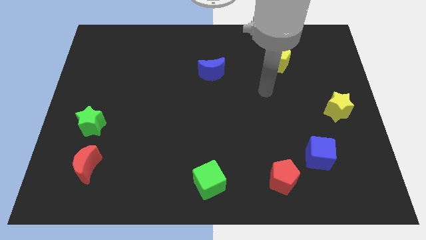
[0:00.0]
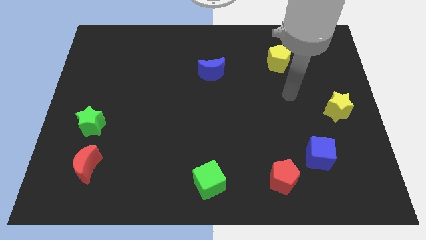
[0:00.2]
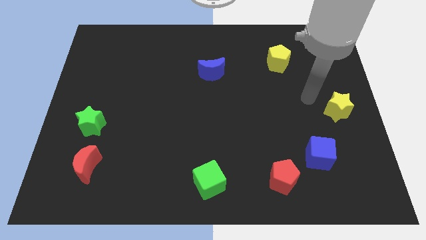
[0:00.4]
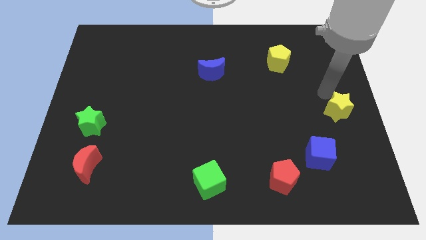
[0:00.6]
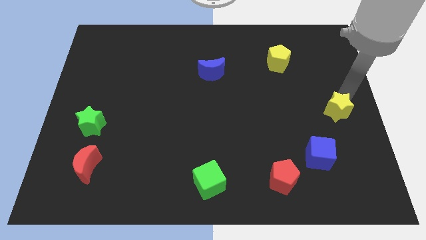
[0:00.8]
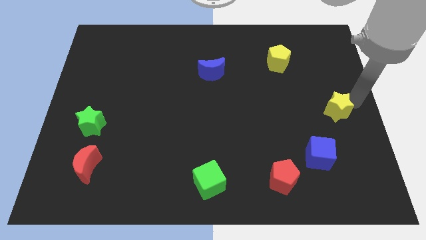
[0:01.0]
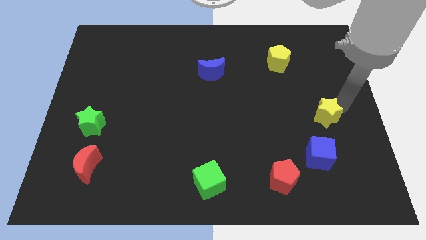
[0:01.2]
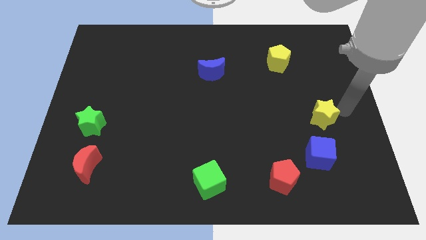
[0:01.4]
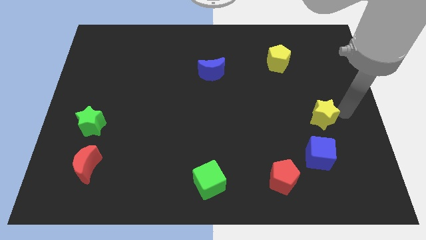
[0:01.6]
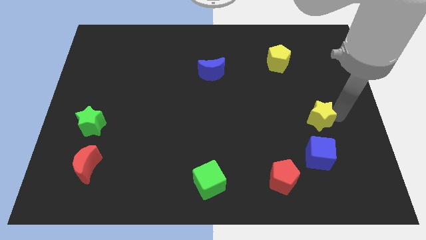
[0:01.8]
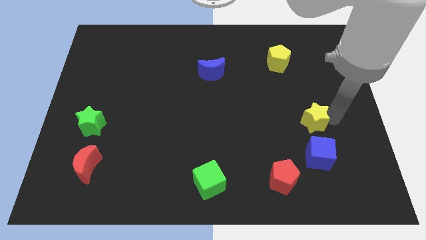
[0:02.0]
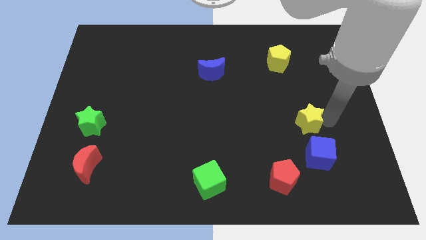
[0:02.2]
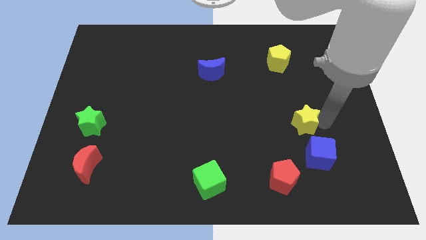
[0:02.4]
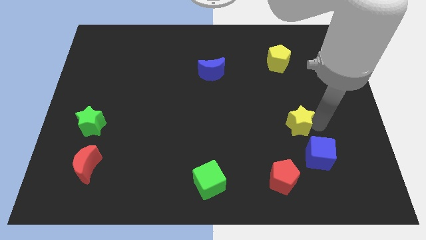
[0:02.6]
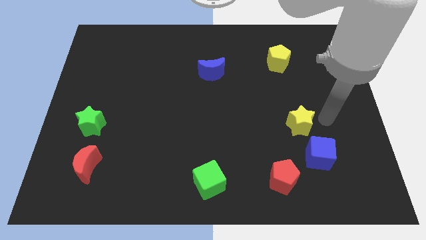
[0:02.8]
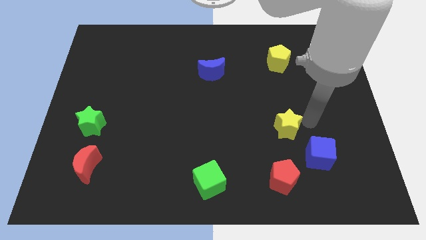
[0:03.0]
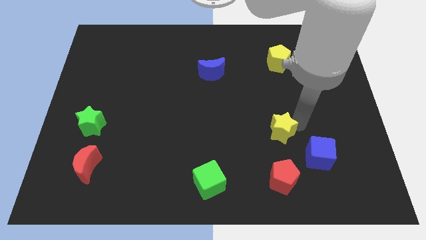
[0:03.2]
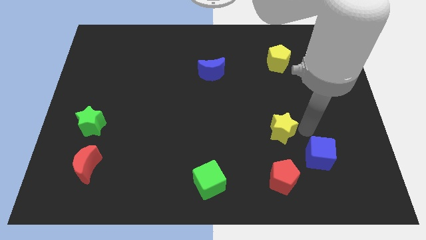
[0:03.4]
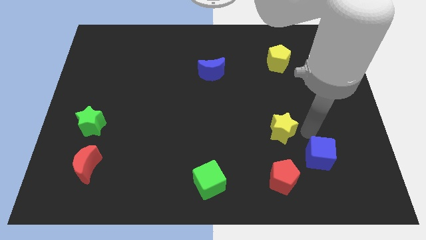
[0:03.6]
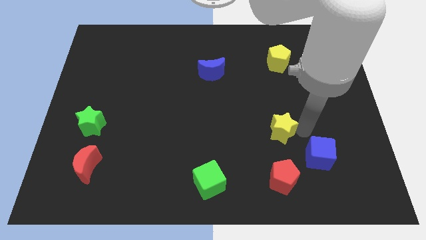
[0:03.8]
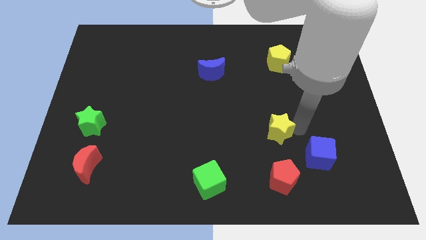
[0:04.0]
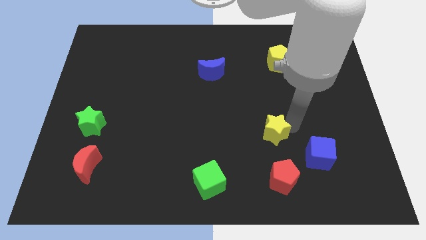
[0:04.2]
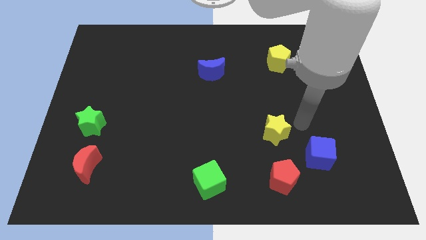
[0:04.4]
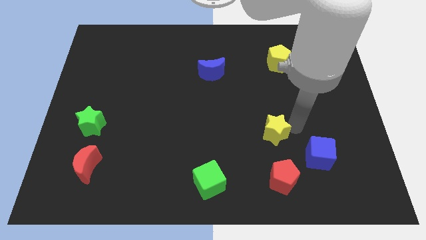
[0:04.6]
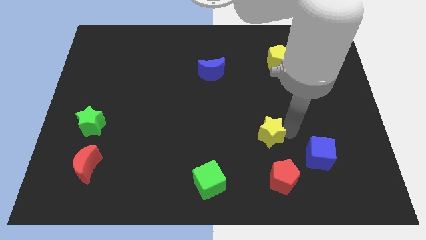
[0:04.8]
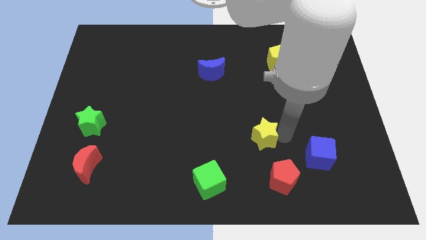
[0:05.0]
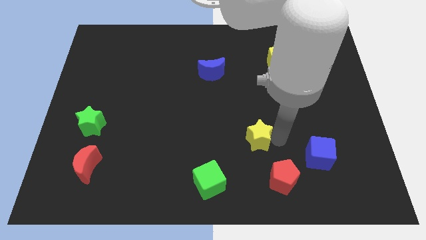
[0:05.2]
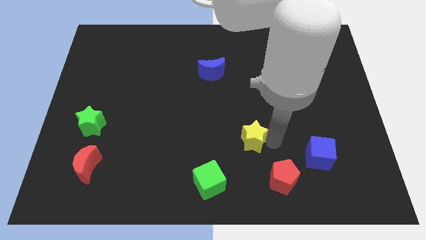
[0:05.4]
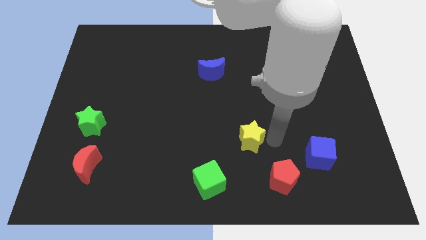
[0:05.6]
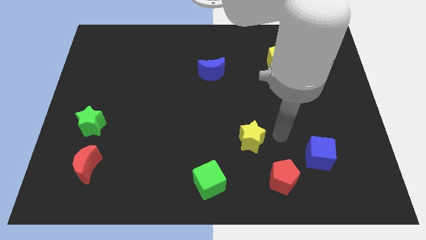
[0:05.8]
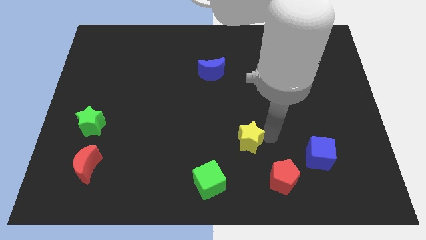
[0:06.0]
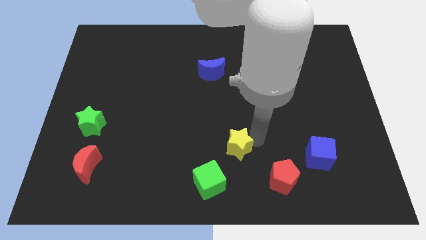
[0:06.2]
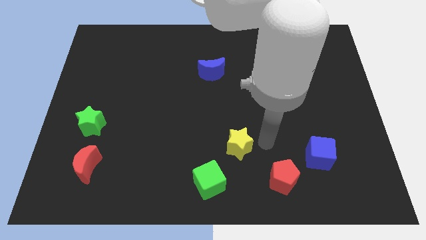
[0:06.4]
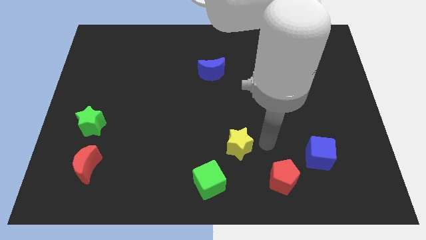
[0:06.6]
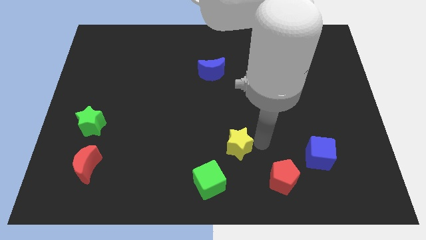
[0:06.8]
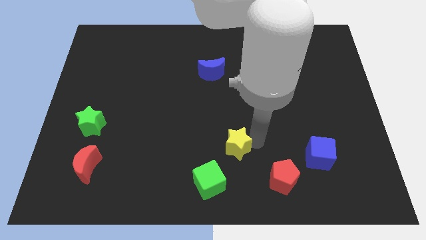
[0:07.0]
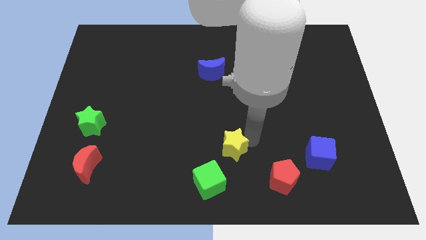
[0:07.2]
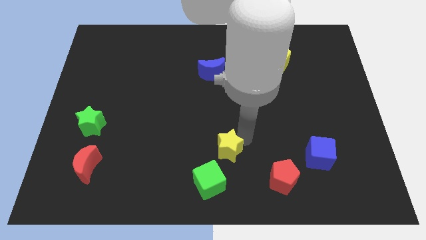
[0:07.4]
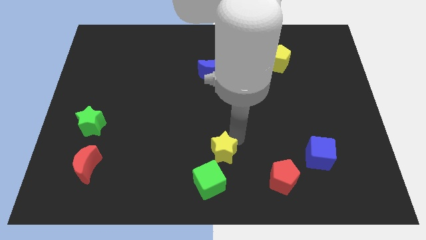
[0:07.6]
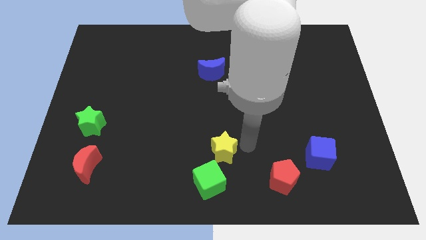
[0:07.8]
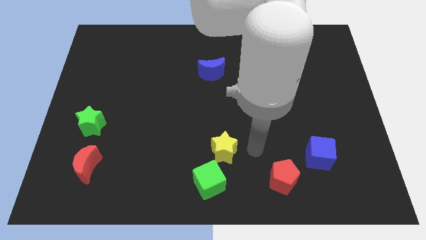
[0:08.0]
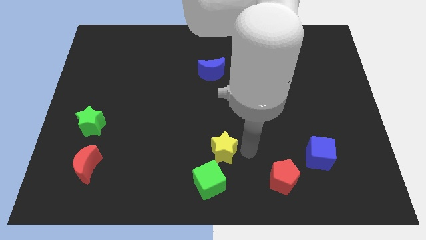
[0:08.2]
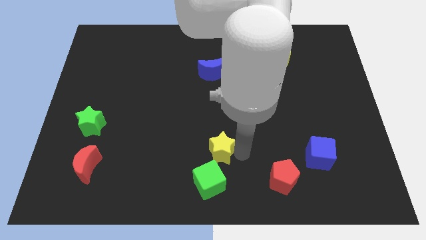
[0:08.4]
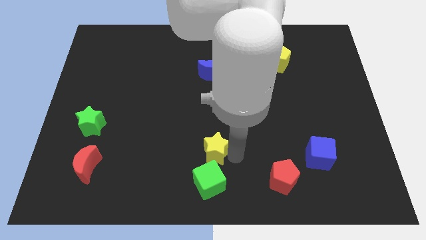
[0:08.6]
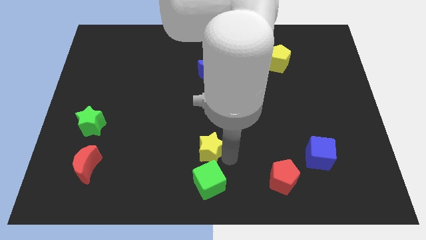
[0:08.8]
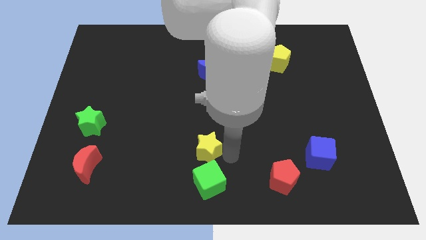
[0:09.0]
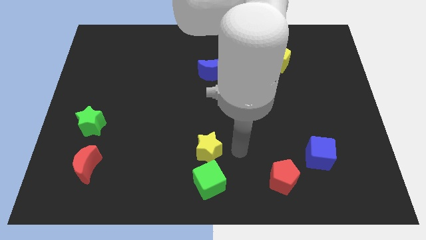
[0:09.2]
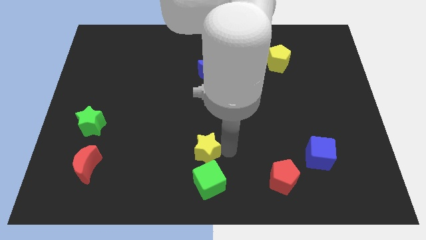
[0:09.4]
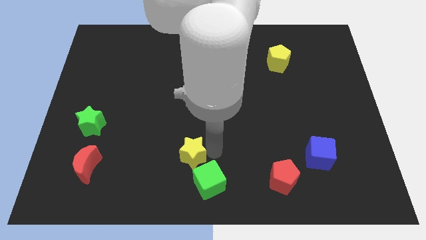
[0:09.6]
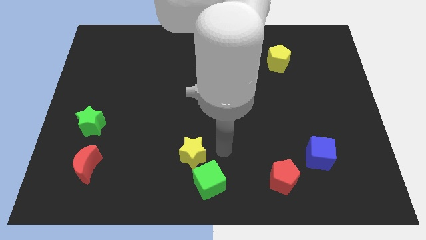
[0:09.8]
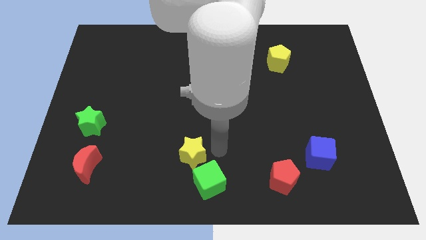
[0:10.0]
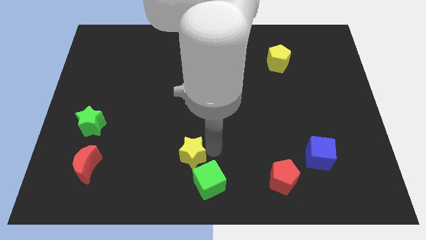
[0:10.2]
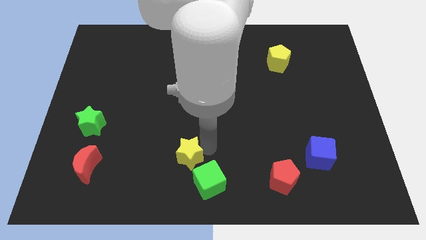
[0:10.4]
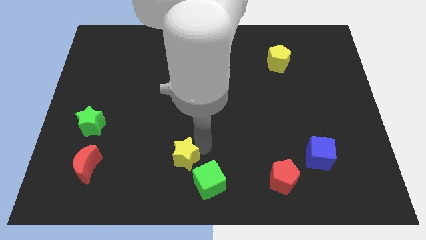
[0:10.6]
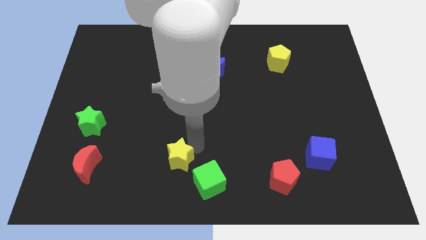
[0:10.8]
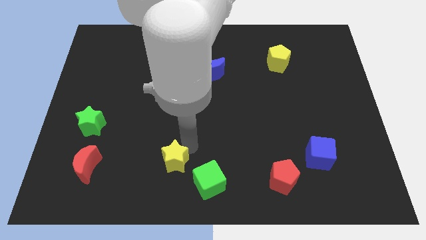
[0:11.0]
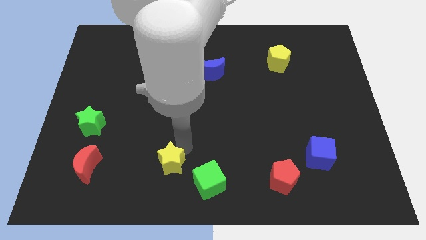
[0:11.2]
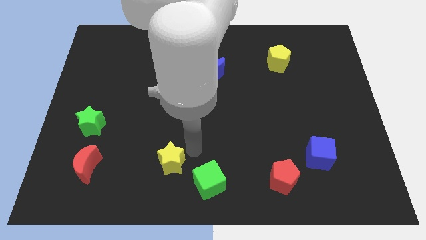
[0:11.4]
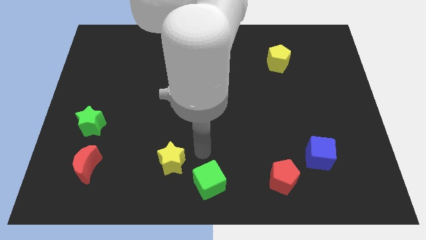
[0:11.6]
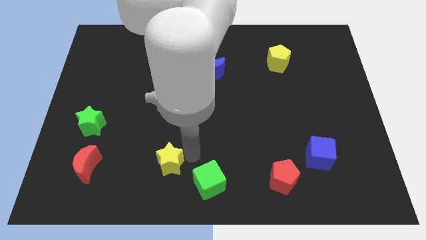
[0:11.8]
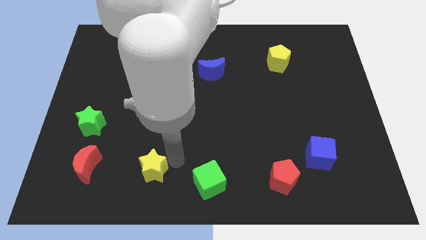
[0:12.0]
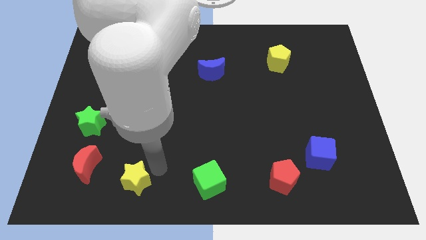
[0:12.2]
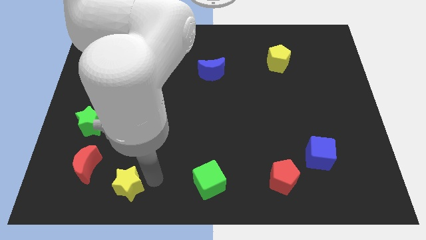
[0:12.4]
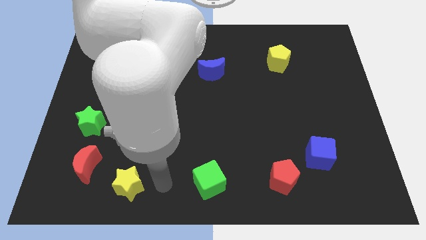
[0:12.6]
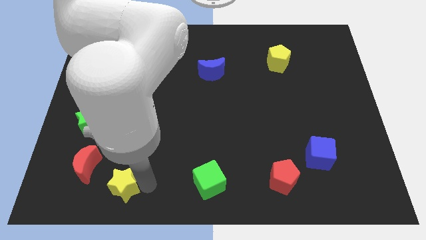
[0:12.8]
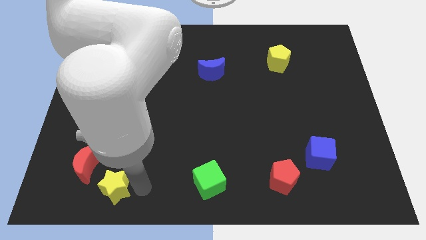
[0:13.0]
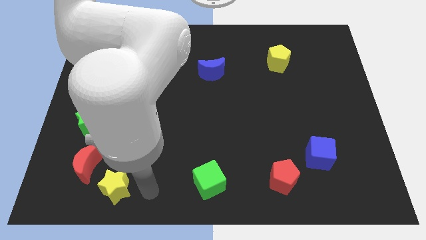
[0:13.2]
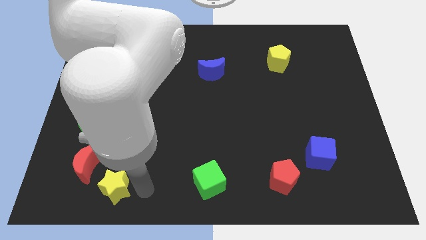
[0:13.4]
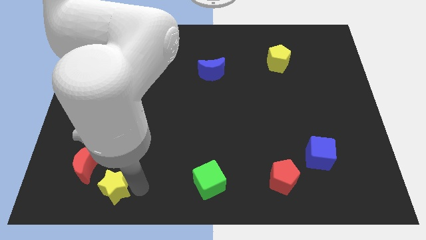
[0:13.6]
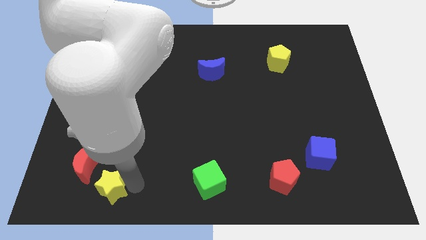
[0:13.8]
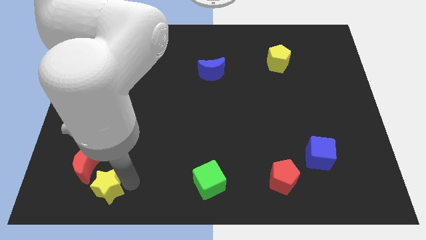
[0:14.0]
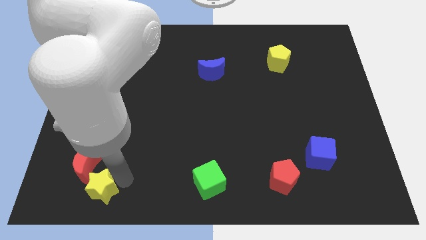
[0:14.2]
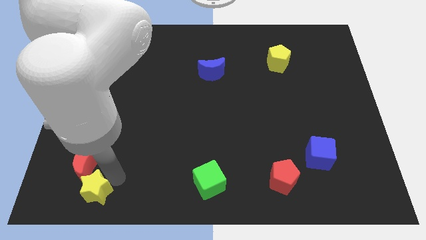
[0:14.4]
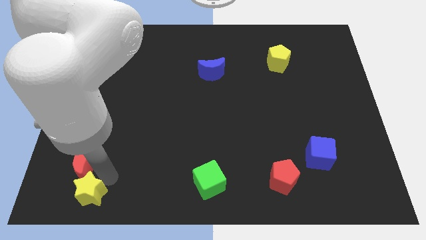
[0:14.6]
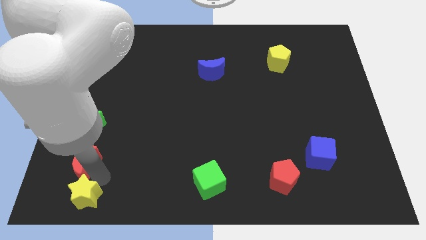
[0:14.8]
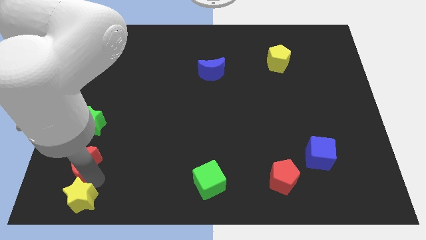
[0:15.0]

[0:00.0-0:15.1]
slide the yellow star to the bottom left
